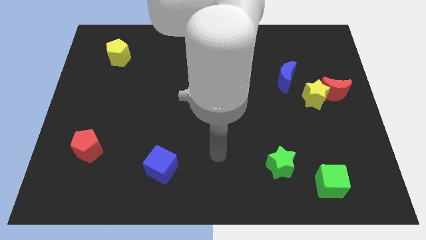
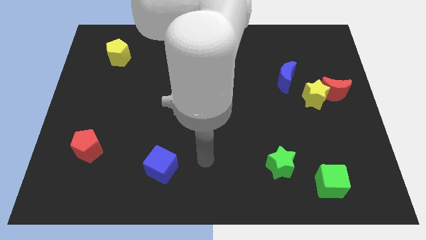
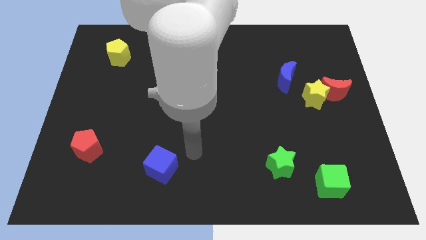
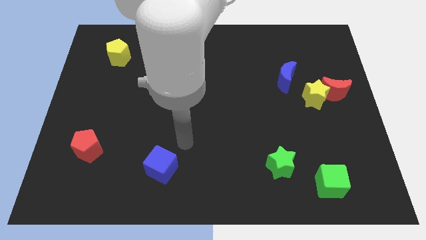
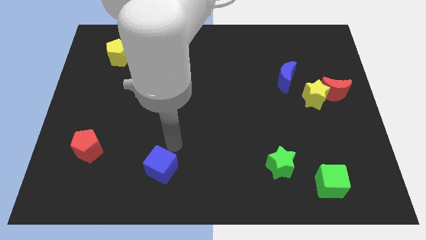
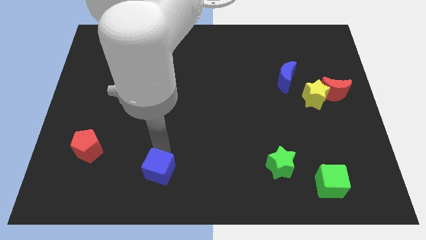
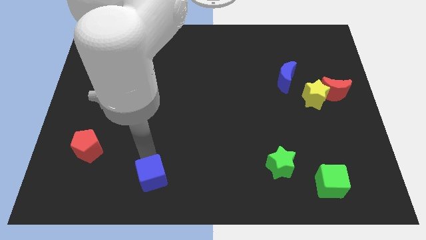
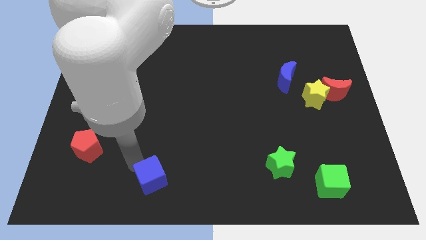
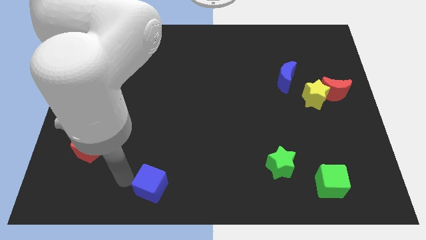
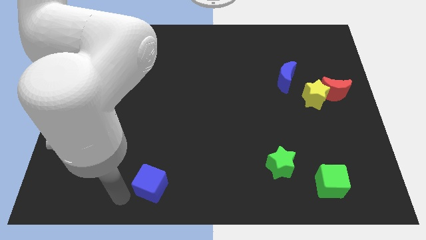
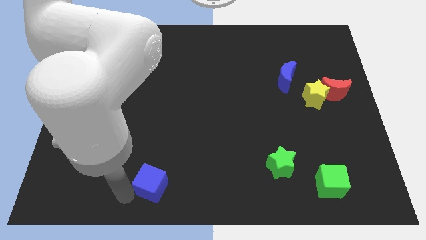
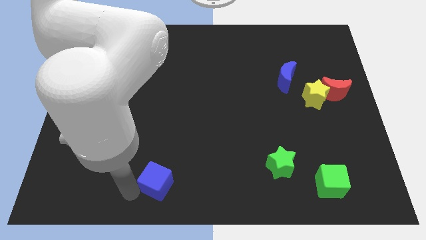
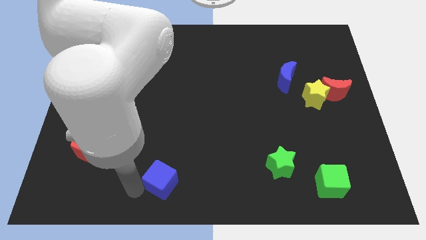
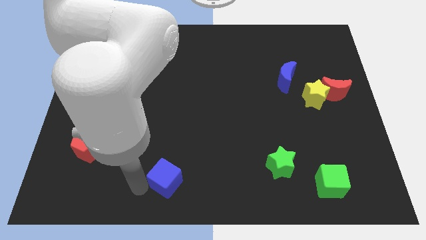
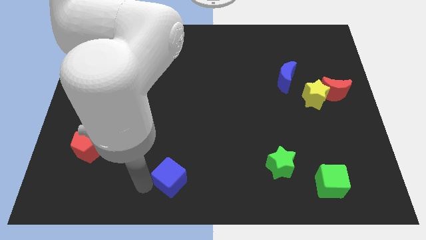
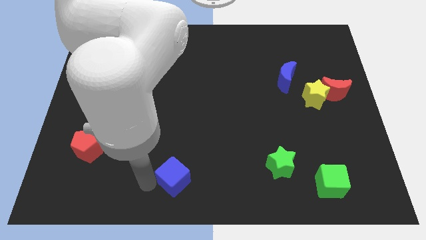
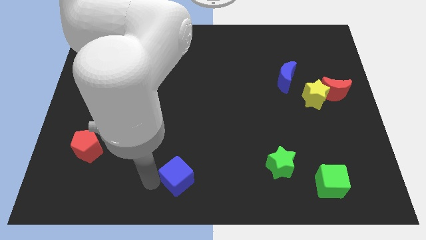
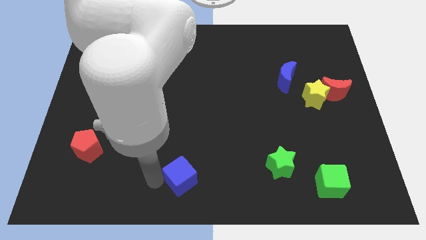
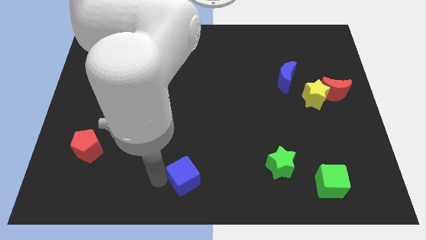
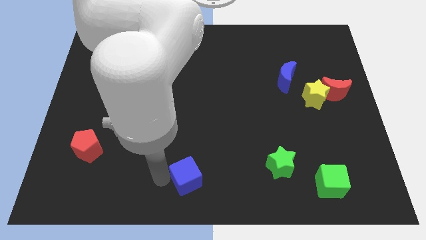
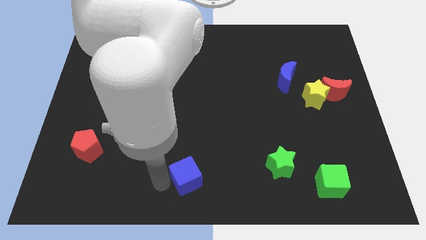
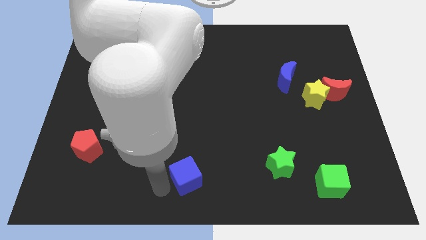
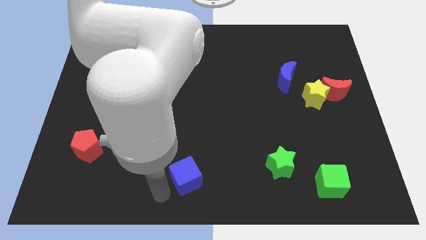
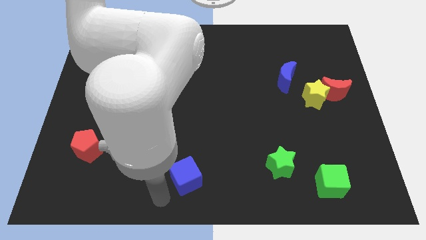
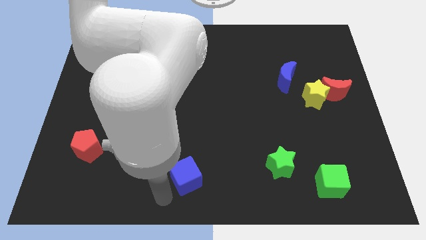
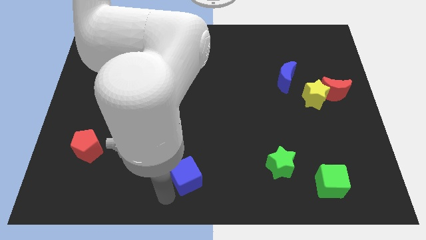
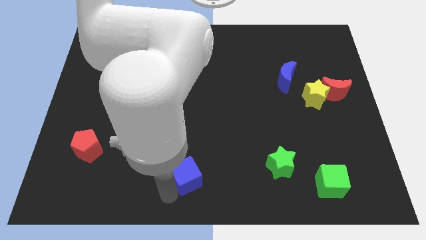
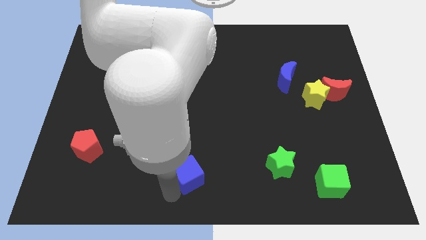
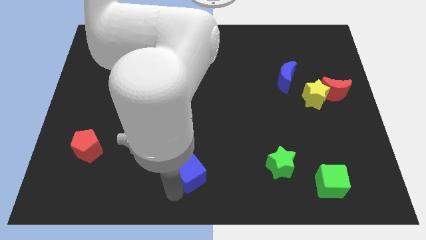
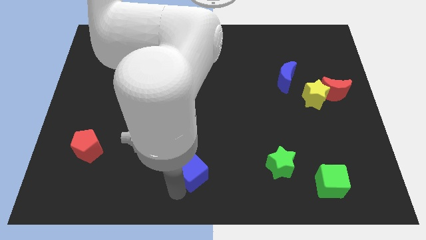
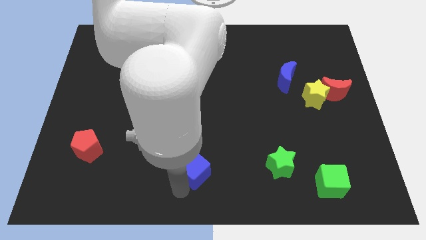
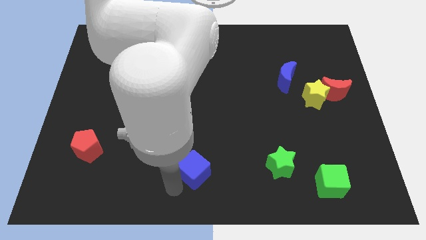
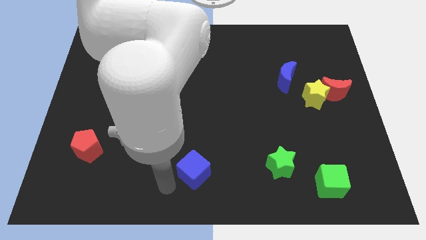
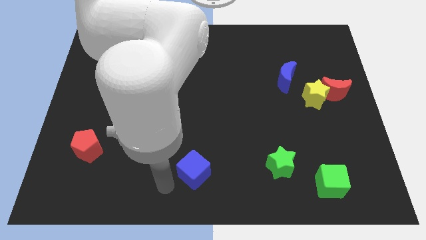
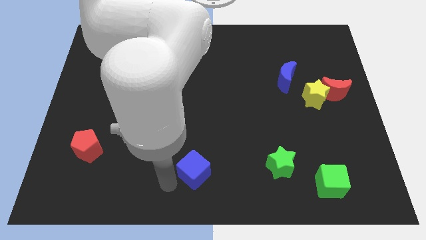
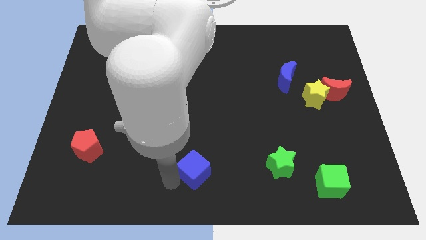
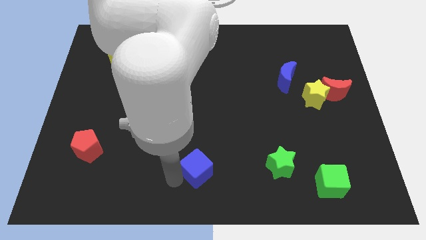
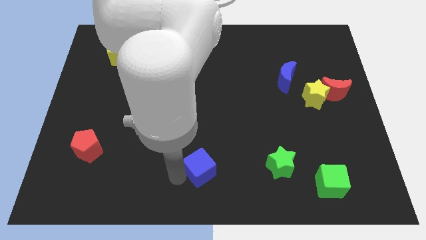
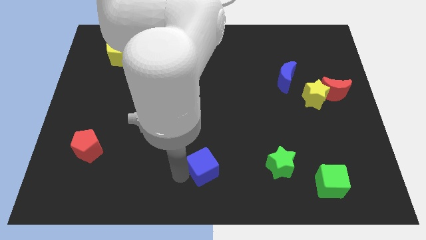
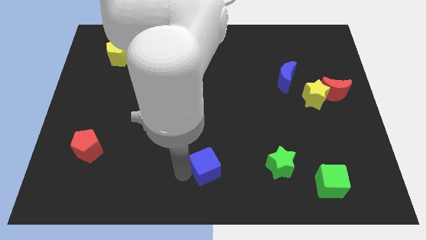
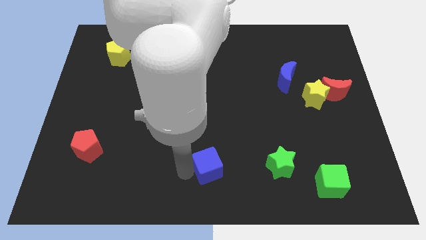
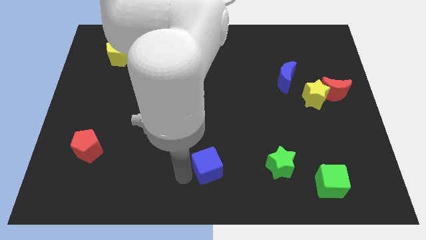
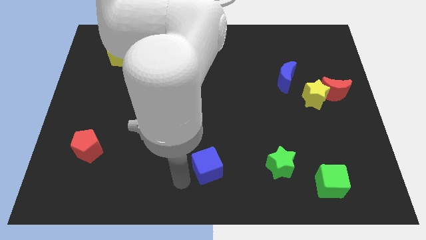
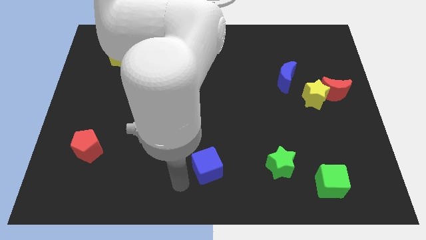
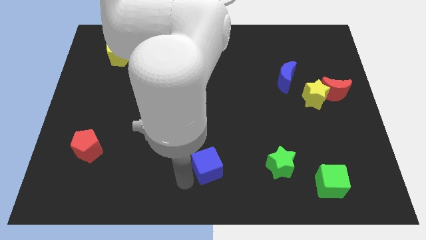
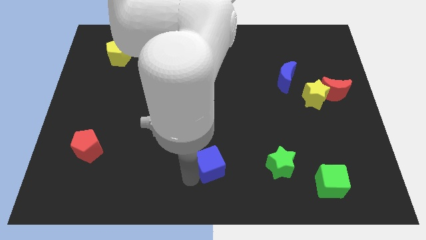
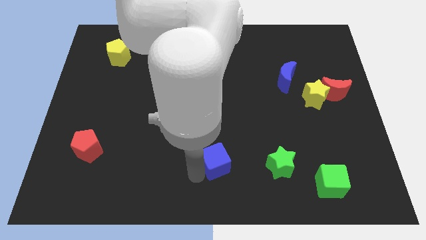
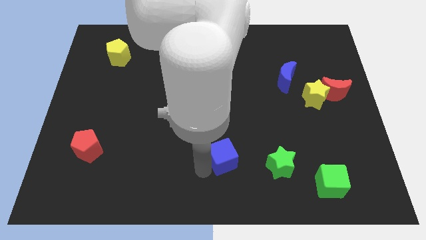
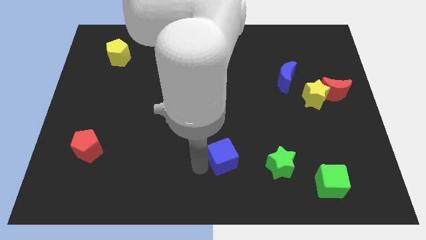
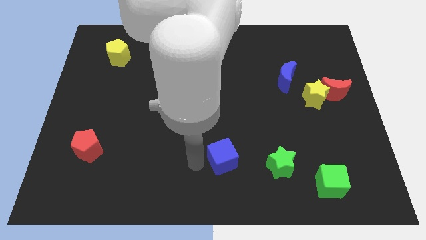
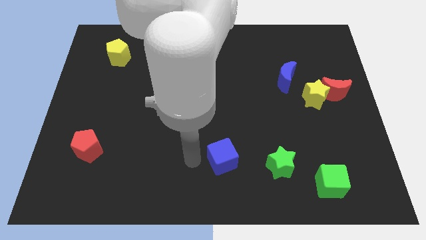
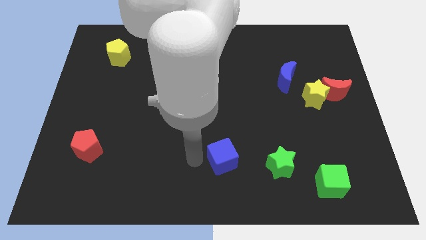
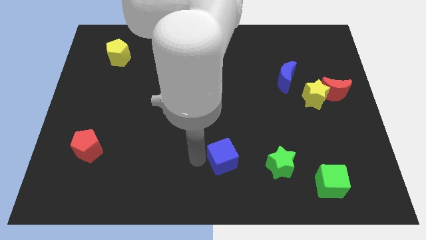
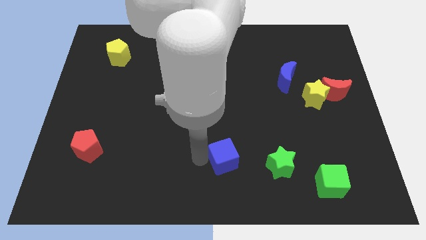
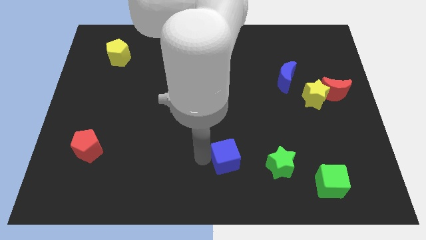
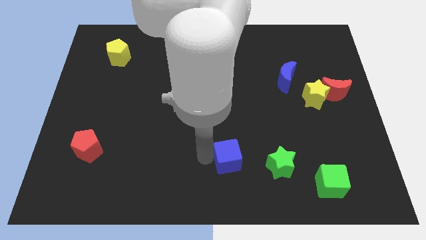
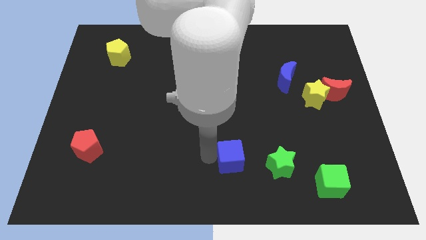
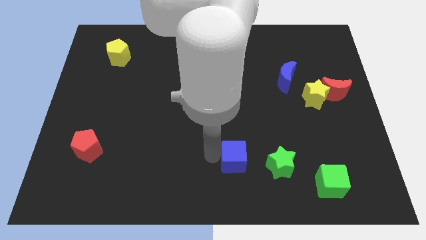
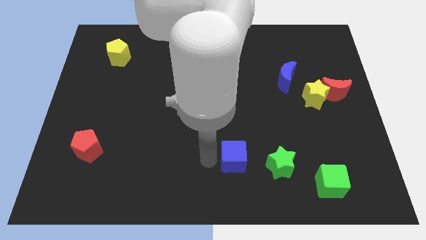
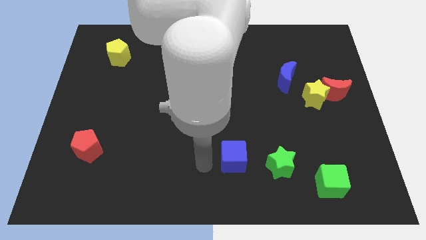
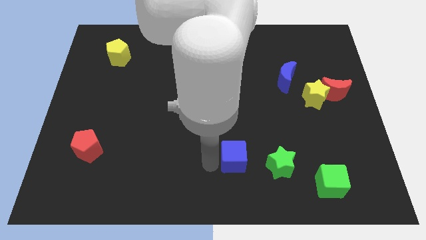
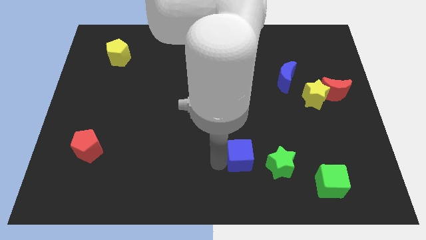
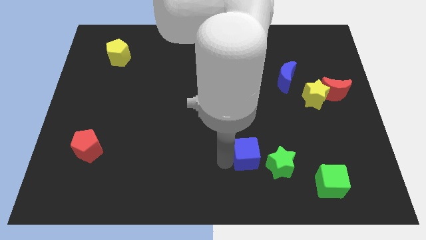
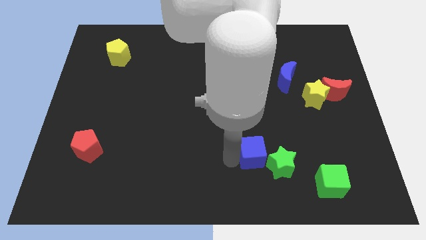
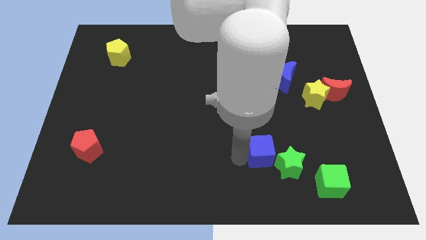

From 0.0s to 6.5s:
push the blue cube to the right

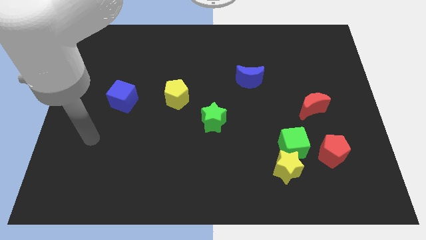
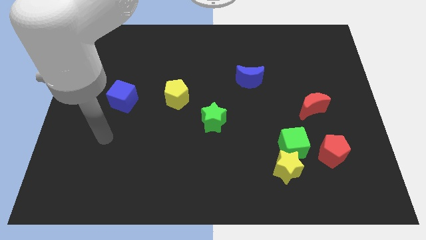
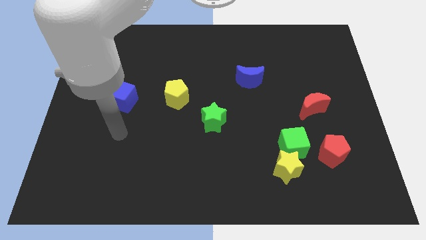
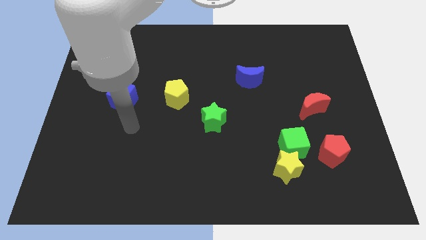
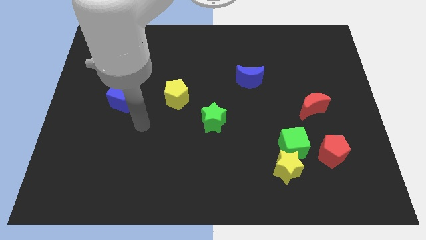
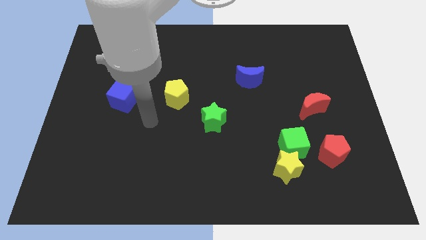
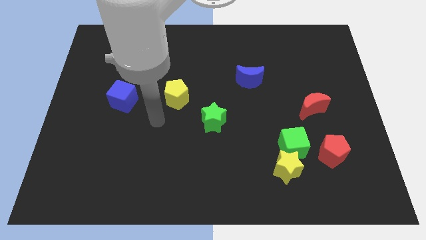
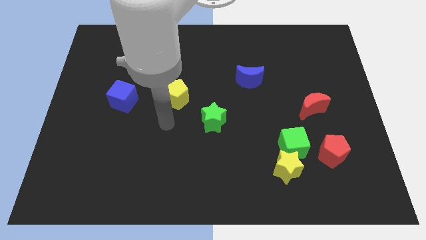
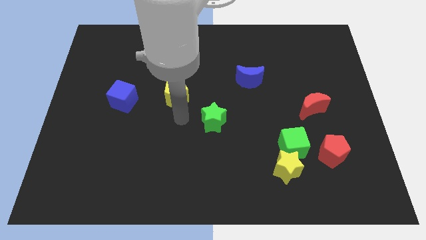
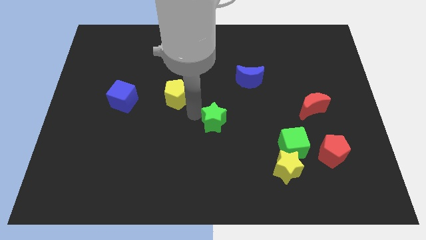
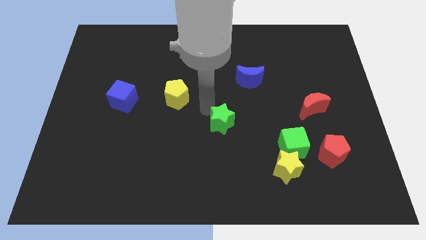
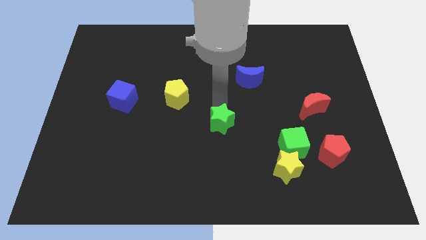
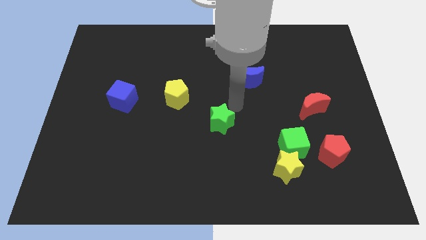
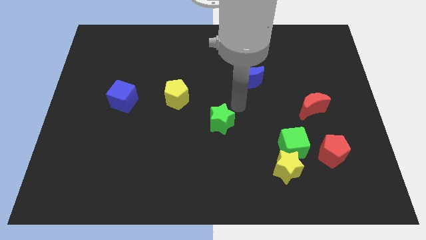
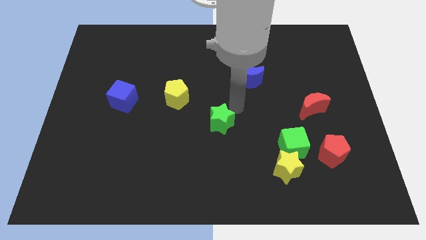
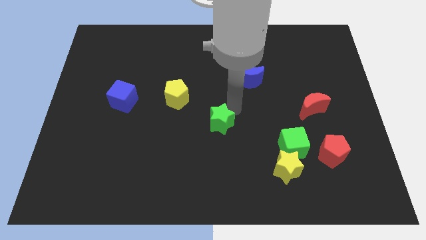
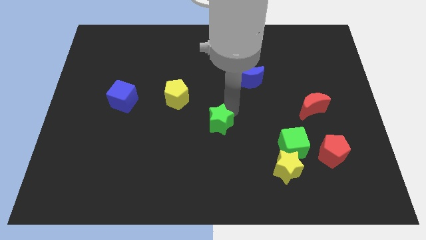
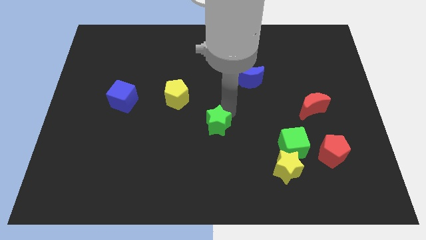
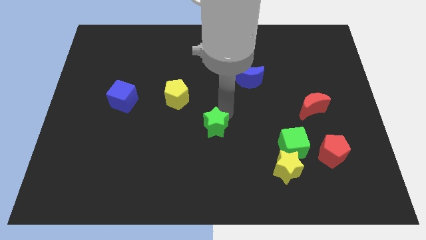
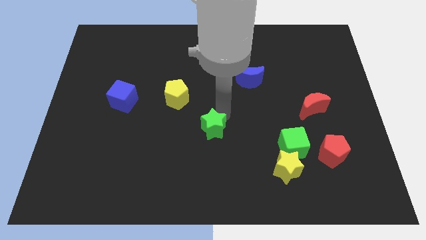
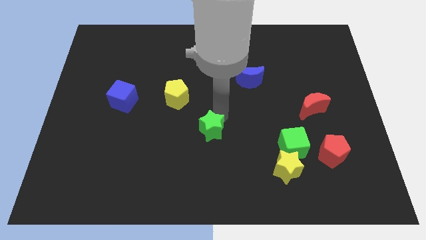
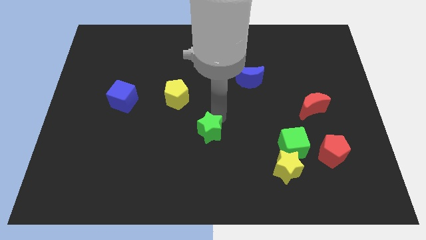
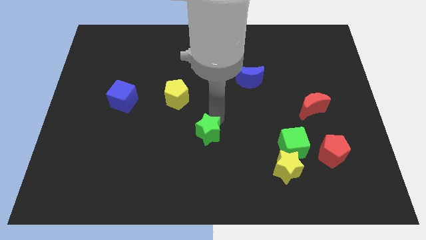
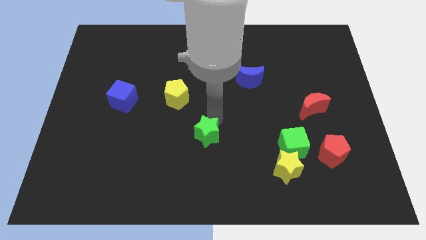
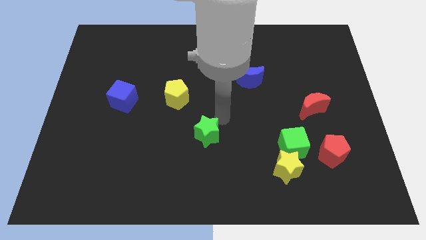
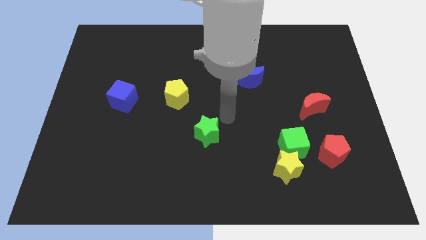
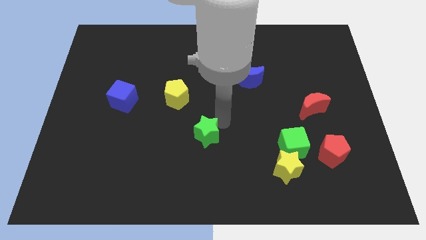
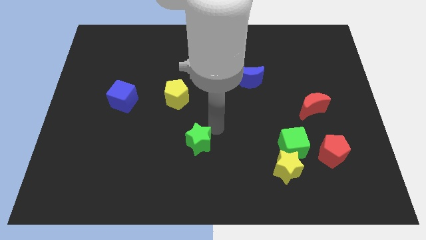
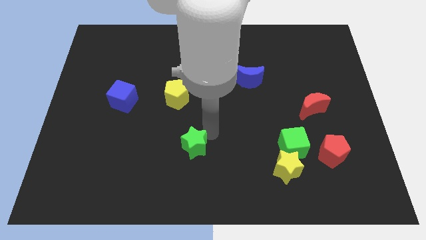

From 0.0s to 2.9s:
slightly push the green star downwards and then to the left
